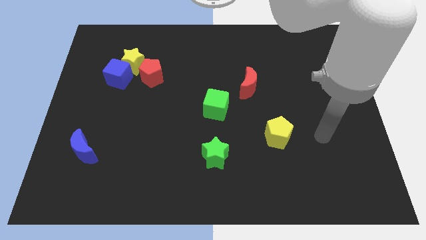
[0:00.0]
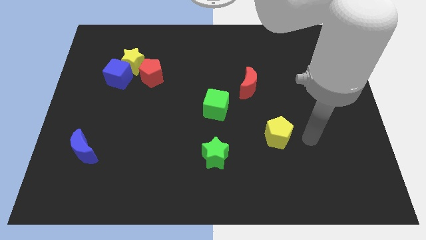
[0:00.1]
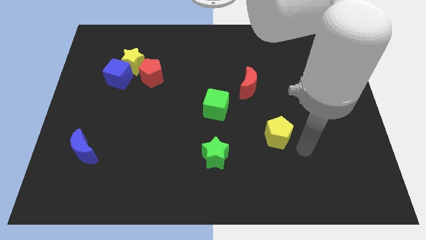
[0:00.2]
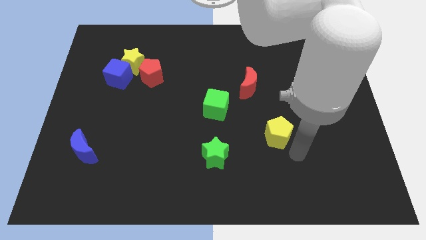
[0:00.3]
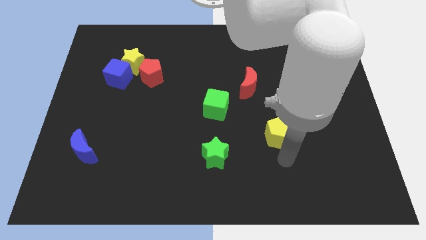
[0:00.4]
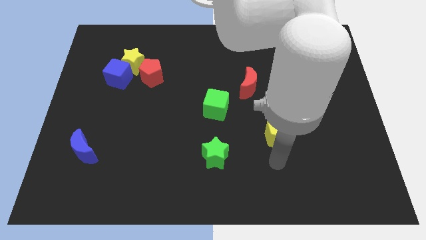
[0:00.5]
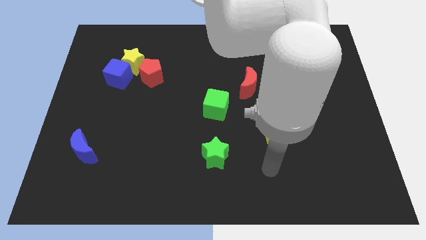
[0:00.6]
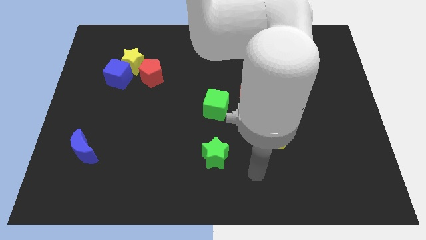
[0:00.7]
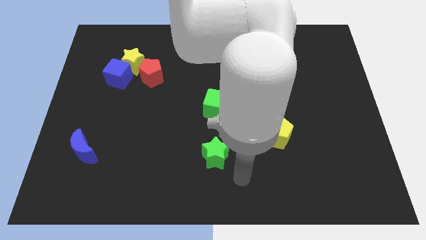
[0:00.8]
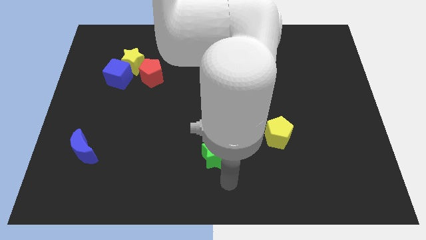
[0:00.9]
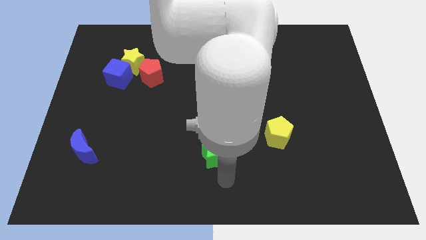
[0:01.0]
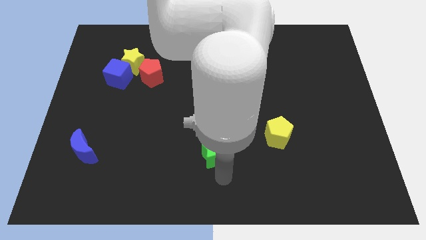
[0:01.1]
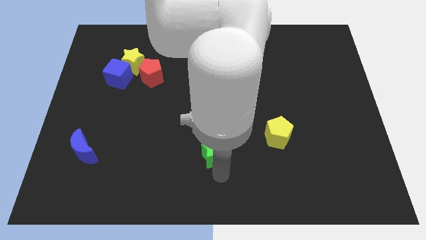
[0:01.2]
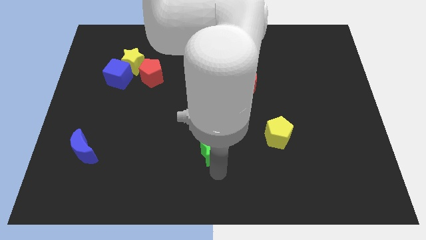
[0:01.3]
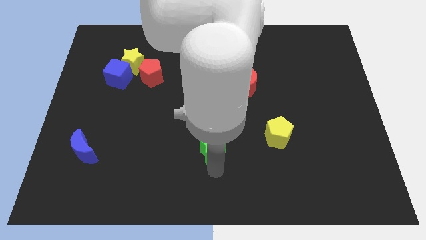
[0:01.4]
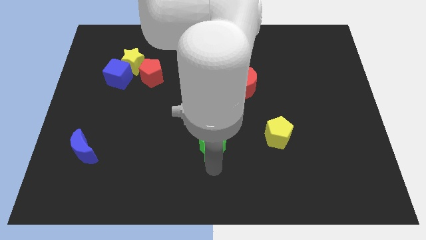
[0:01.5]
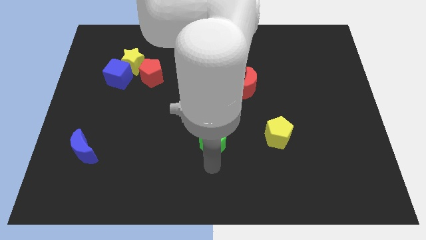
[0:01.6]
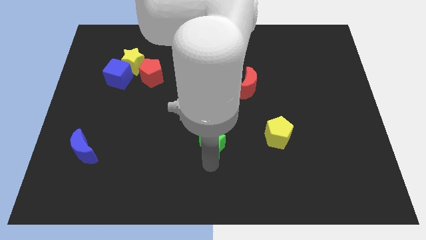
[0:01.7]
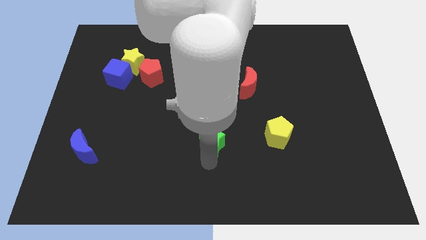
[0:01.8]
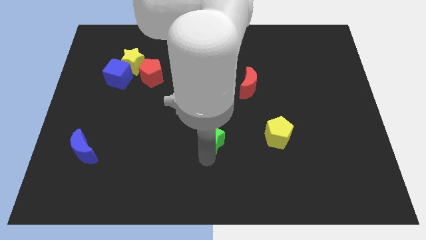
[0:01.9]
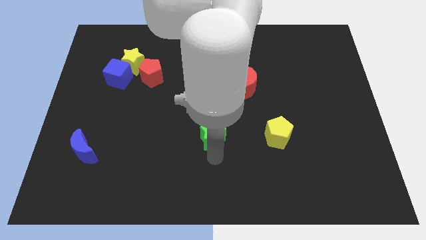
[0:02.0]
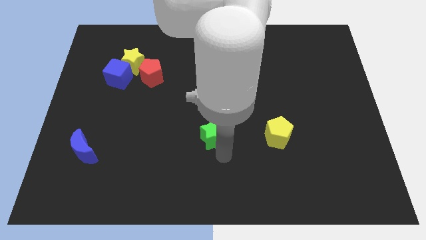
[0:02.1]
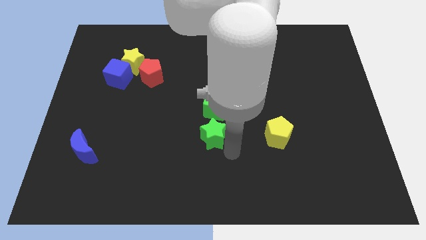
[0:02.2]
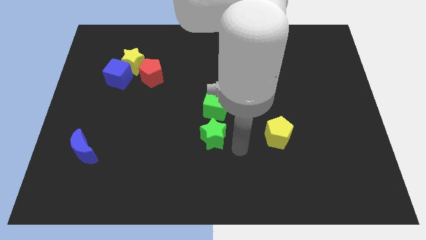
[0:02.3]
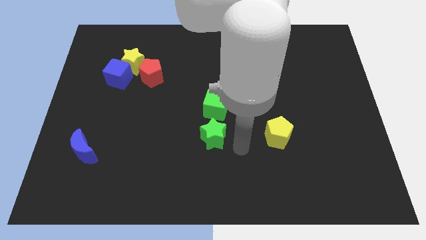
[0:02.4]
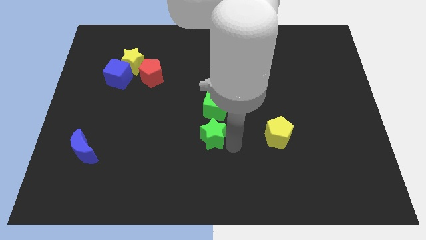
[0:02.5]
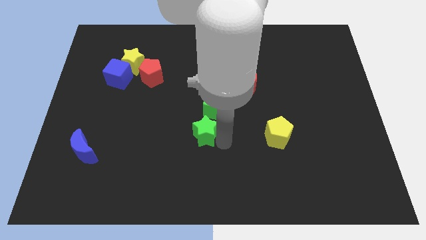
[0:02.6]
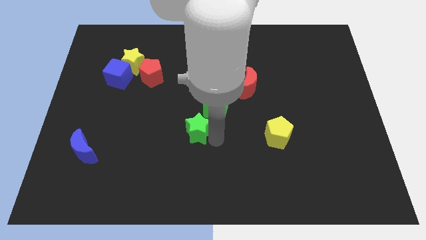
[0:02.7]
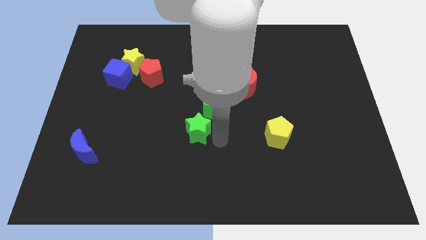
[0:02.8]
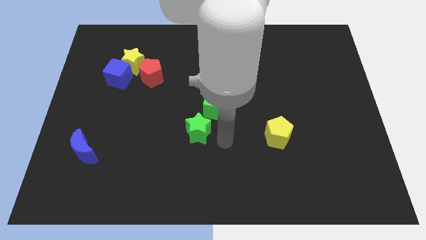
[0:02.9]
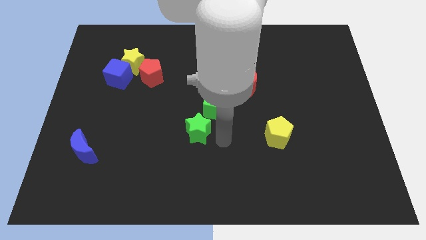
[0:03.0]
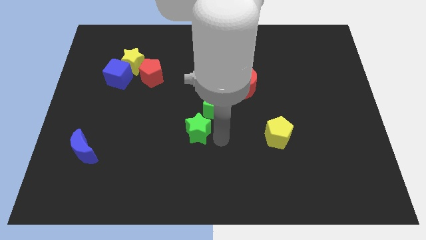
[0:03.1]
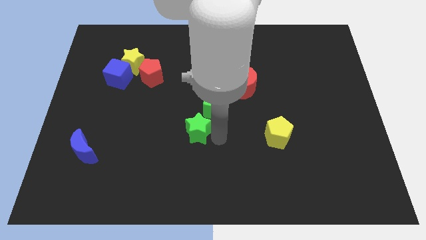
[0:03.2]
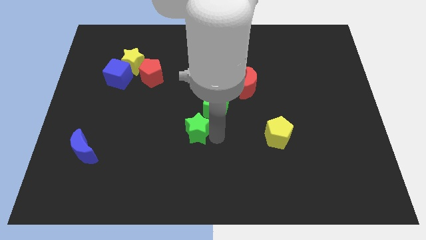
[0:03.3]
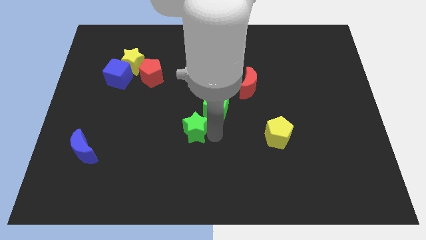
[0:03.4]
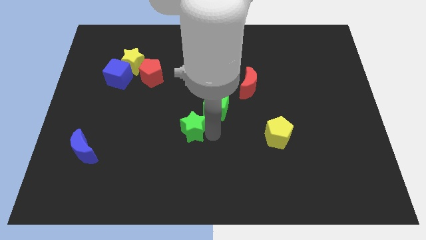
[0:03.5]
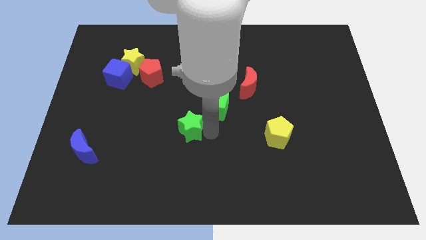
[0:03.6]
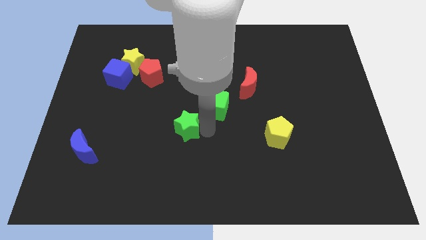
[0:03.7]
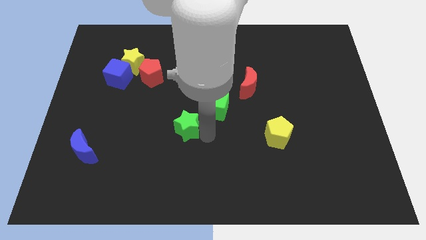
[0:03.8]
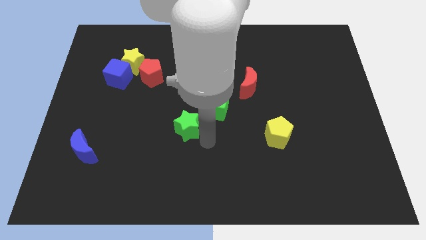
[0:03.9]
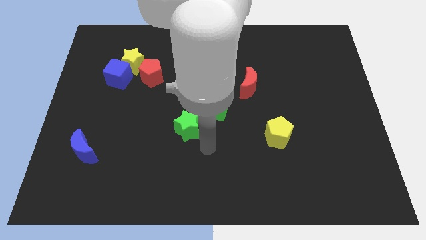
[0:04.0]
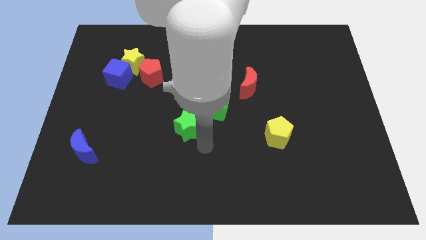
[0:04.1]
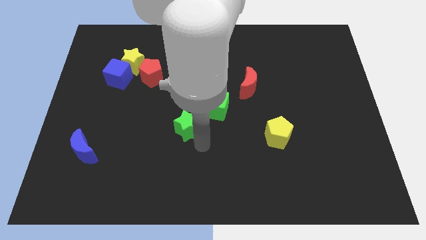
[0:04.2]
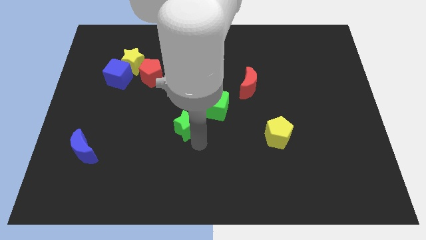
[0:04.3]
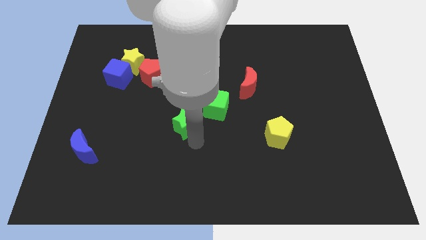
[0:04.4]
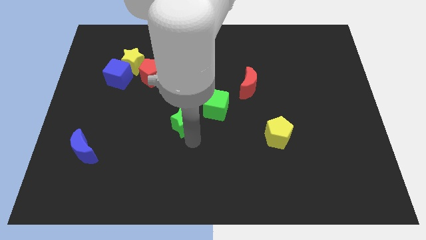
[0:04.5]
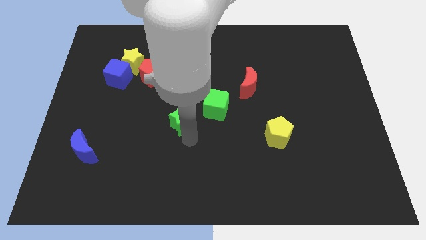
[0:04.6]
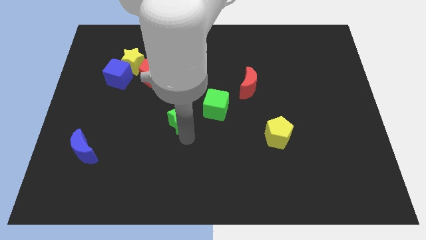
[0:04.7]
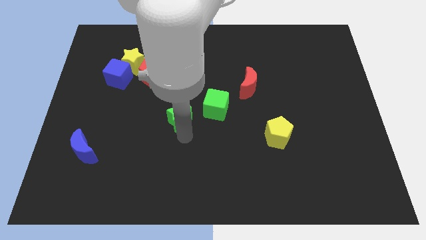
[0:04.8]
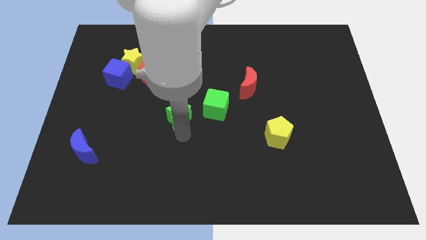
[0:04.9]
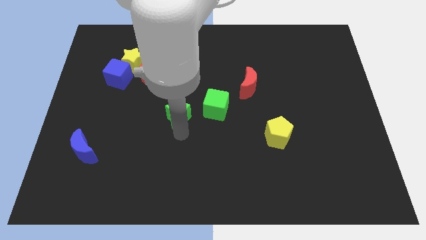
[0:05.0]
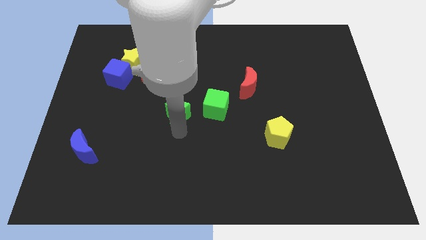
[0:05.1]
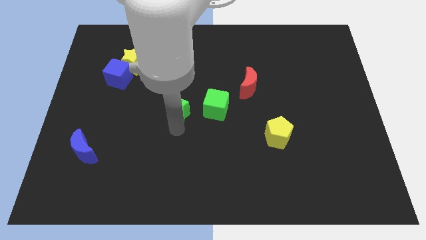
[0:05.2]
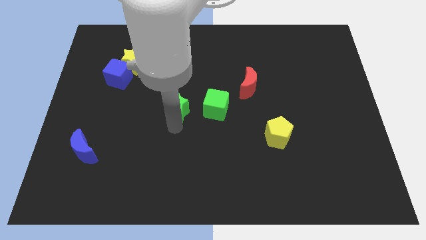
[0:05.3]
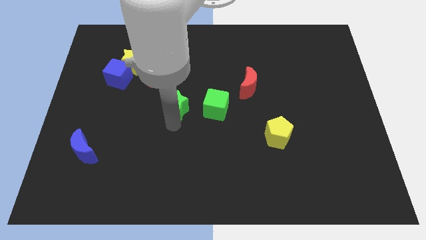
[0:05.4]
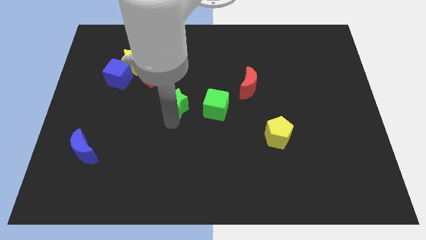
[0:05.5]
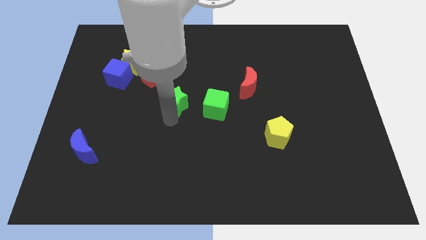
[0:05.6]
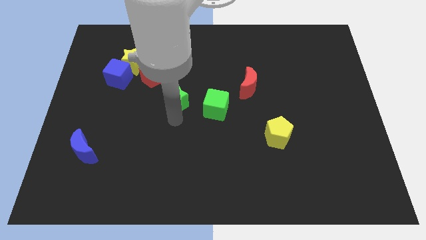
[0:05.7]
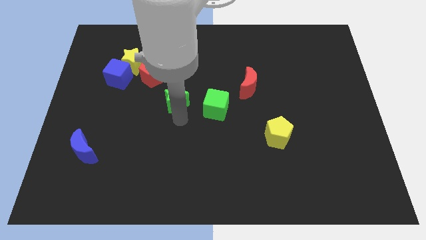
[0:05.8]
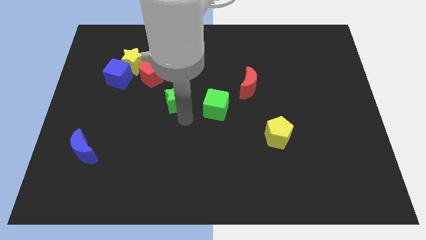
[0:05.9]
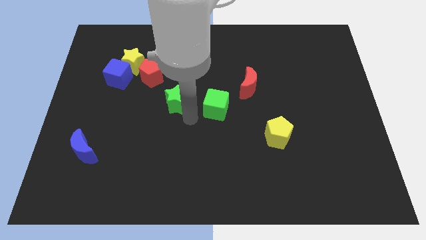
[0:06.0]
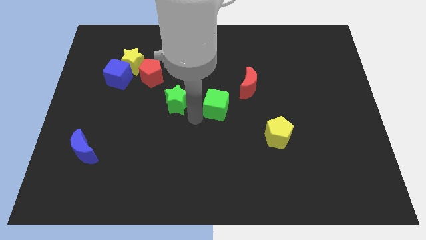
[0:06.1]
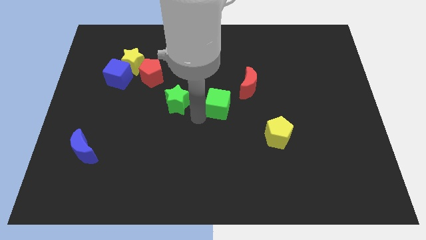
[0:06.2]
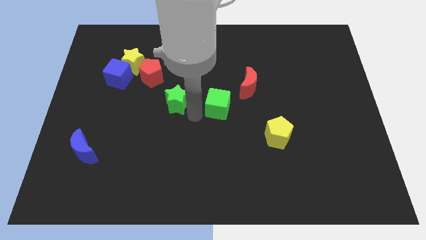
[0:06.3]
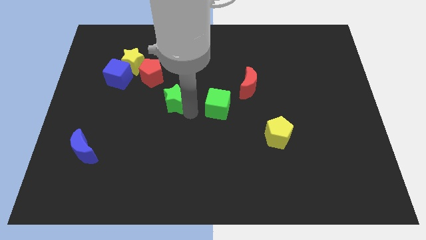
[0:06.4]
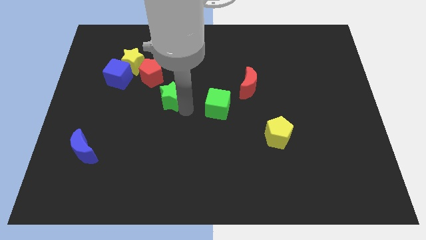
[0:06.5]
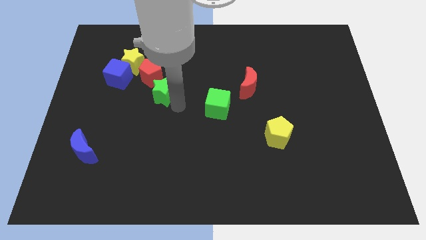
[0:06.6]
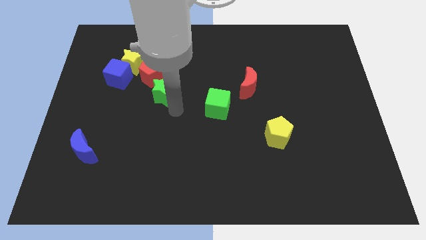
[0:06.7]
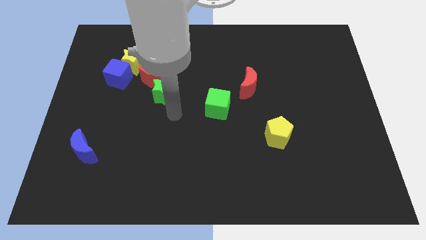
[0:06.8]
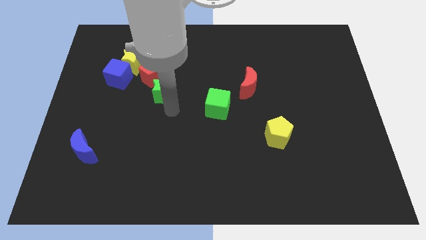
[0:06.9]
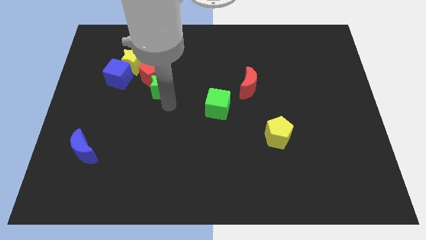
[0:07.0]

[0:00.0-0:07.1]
push the green star to the red pentagon
